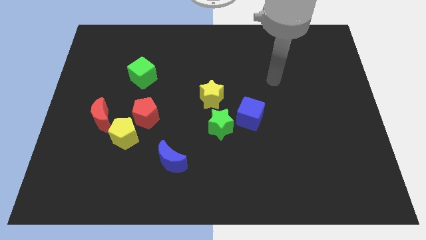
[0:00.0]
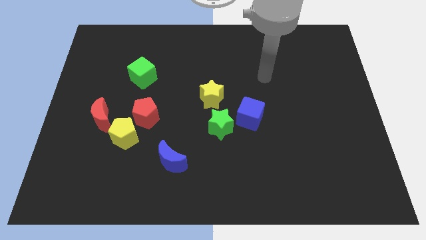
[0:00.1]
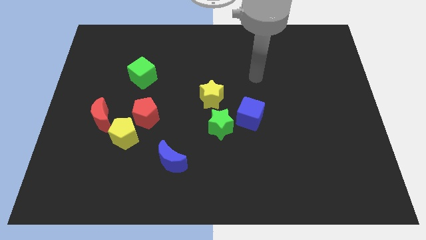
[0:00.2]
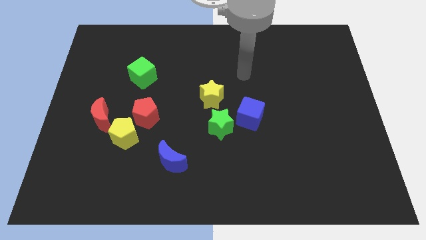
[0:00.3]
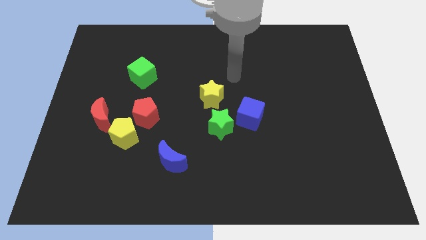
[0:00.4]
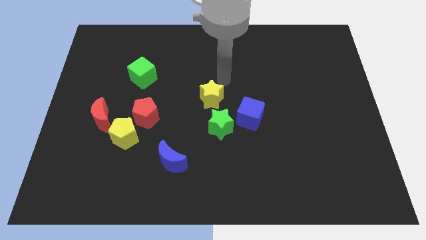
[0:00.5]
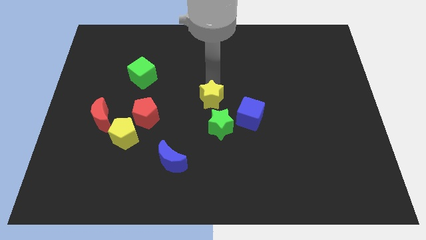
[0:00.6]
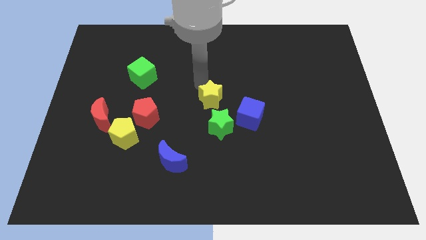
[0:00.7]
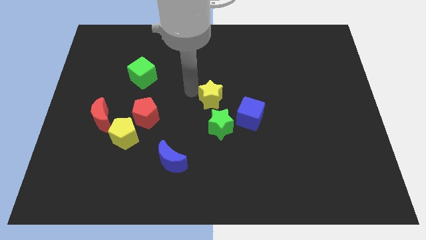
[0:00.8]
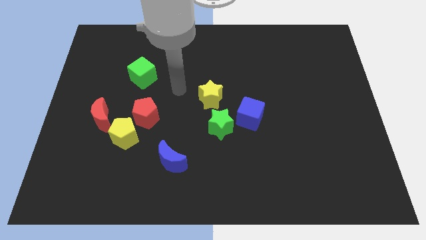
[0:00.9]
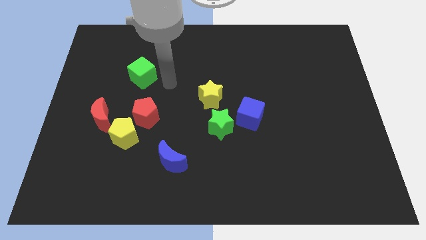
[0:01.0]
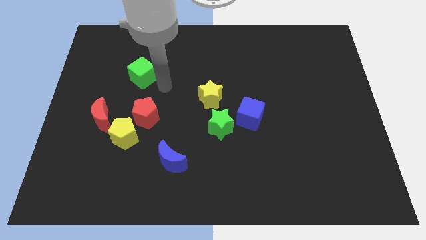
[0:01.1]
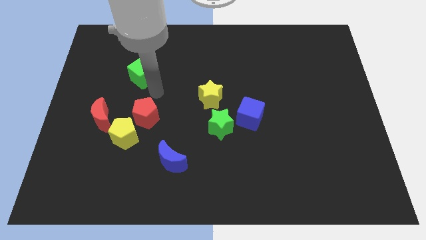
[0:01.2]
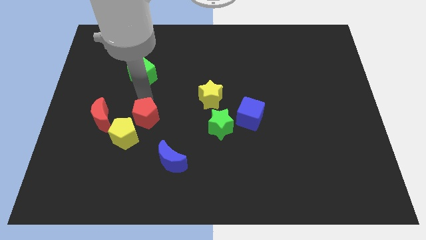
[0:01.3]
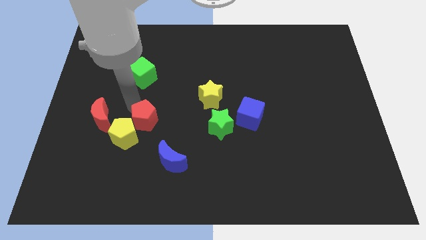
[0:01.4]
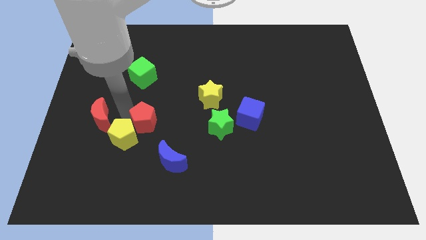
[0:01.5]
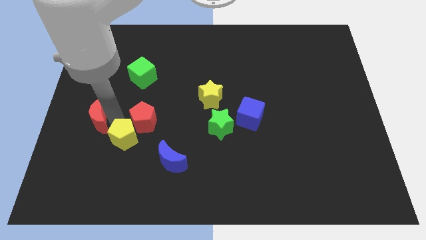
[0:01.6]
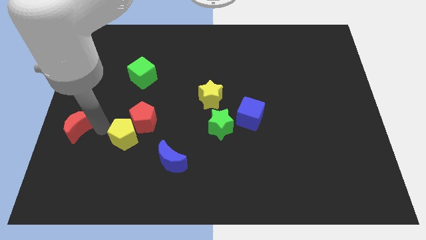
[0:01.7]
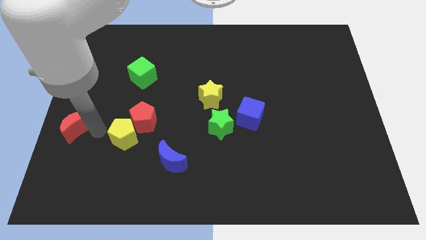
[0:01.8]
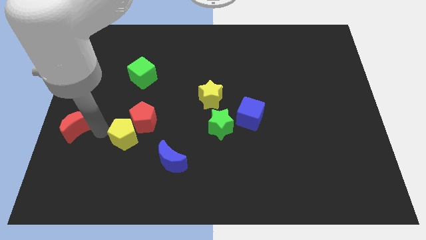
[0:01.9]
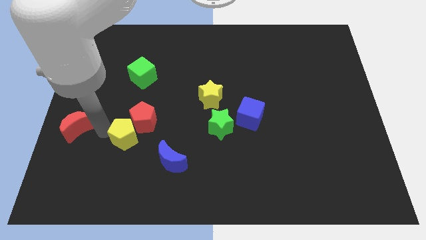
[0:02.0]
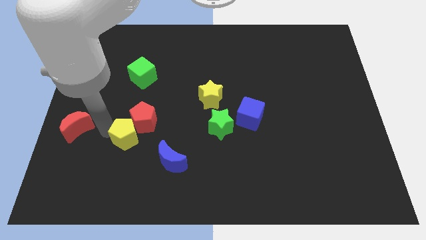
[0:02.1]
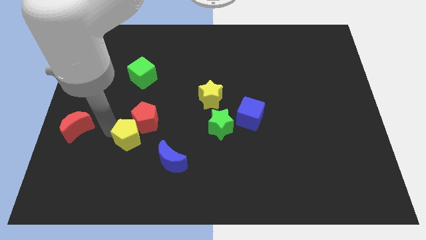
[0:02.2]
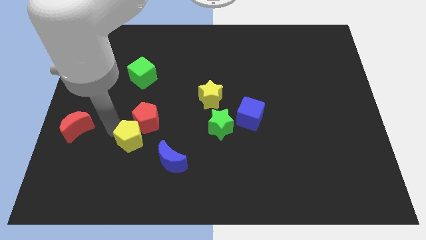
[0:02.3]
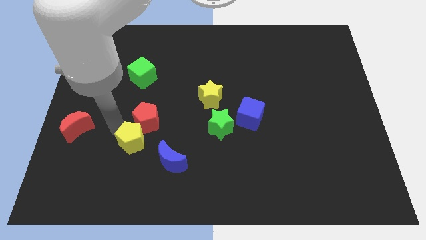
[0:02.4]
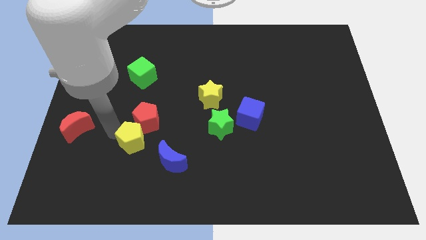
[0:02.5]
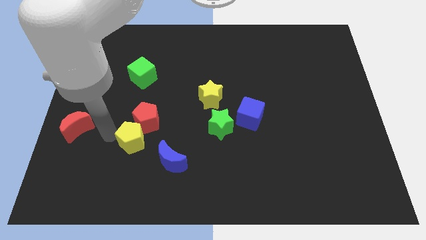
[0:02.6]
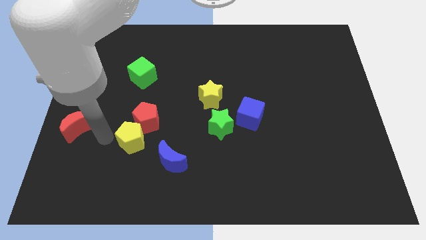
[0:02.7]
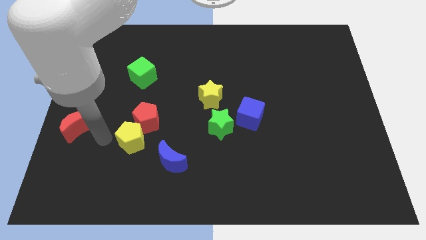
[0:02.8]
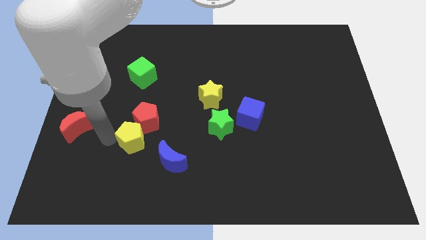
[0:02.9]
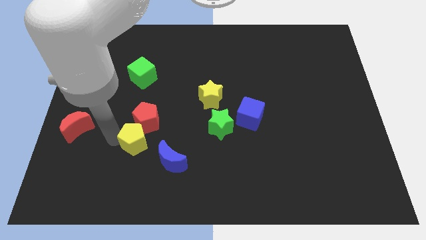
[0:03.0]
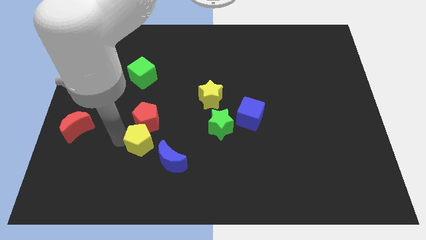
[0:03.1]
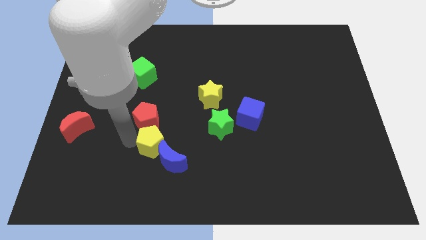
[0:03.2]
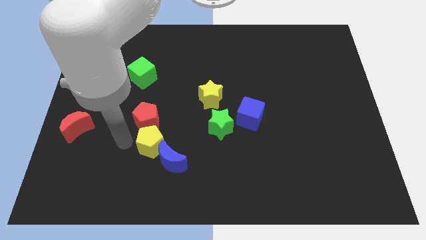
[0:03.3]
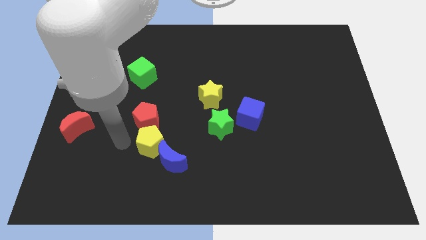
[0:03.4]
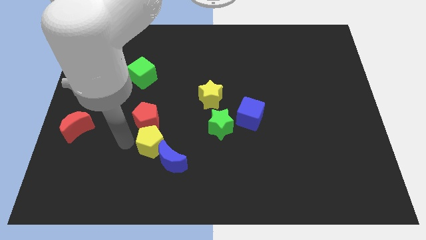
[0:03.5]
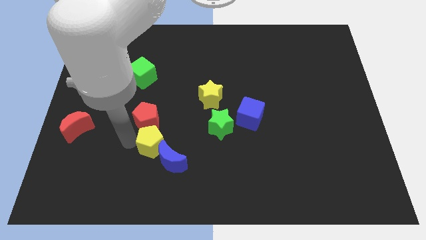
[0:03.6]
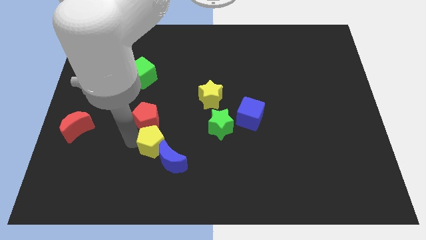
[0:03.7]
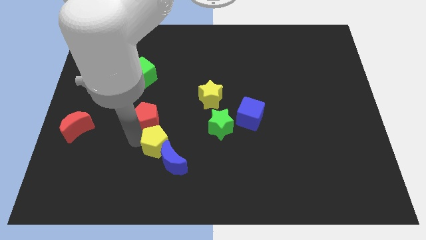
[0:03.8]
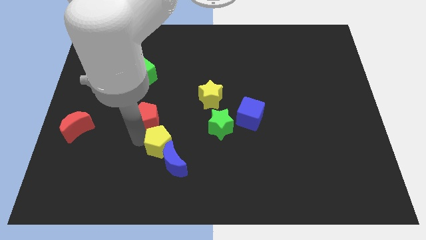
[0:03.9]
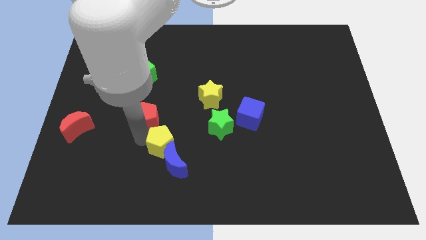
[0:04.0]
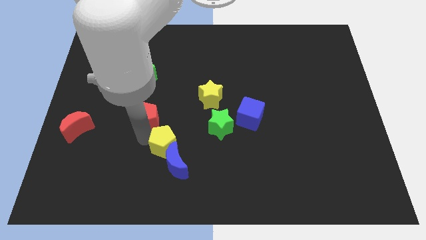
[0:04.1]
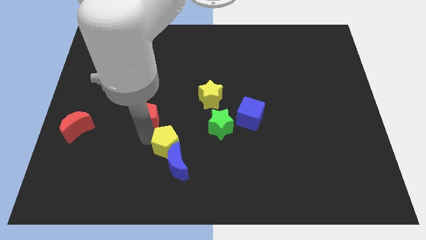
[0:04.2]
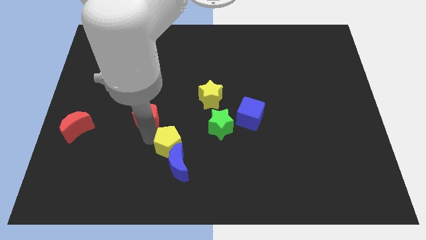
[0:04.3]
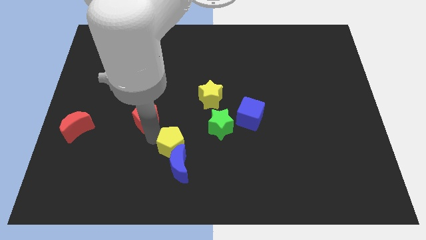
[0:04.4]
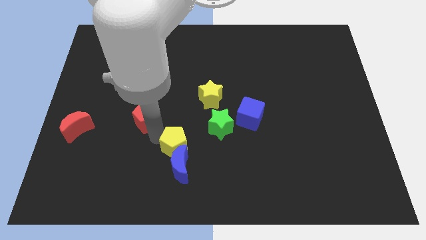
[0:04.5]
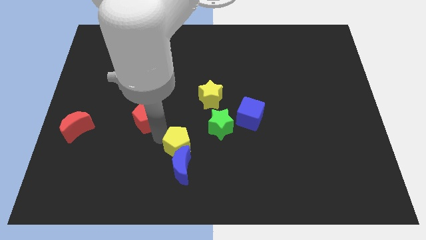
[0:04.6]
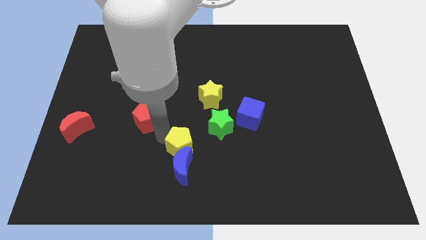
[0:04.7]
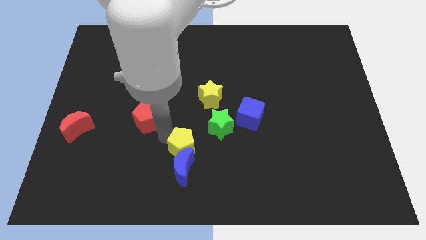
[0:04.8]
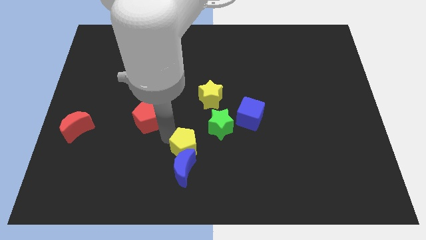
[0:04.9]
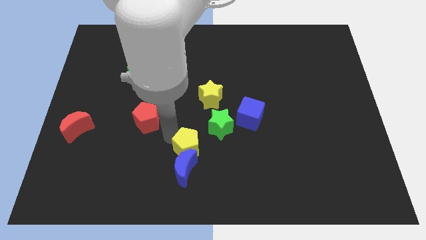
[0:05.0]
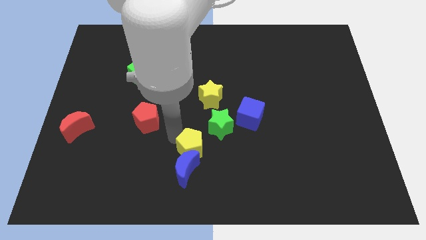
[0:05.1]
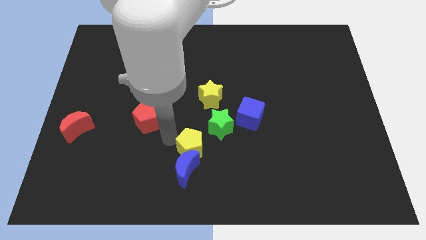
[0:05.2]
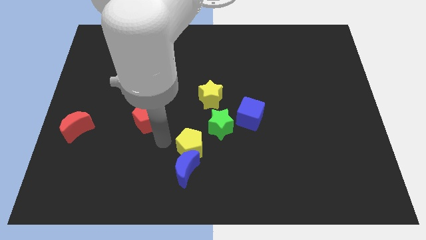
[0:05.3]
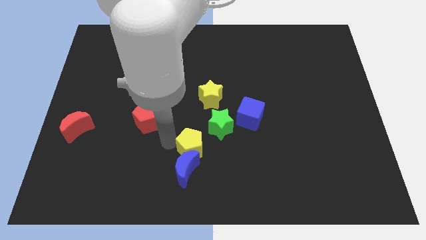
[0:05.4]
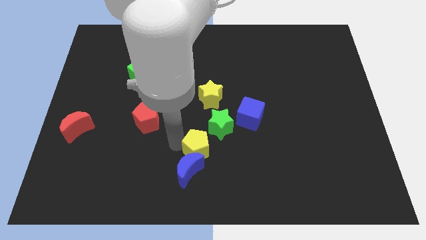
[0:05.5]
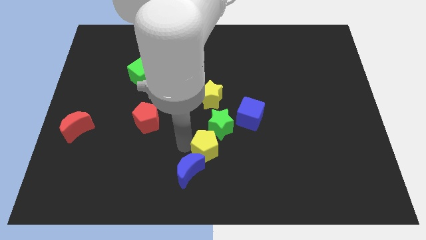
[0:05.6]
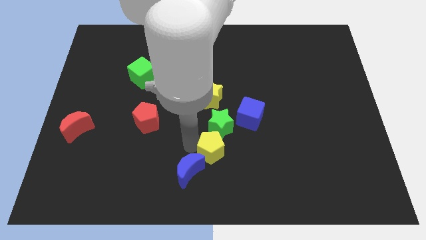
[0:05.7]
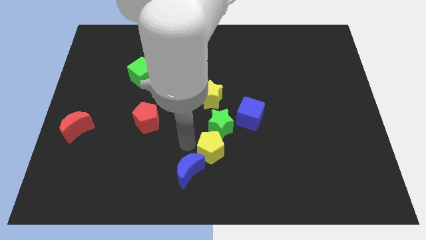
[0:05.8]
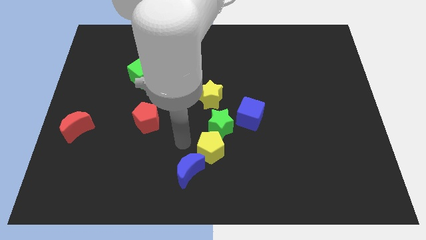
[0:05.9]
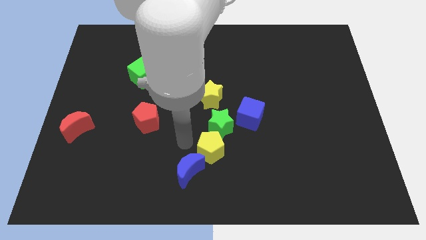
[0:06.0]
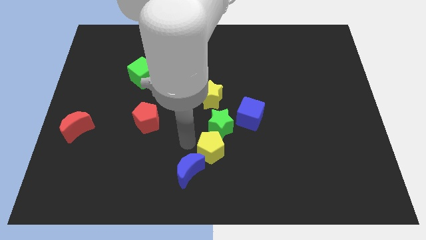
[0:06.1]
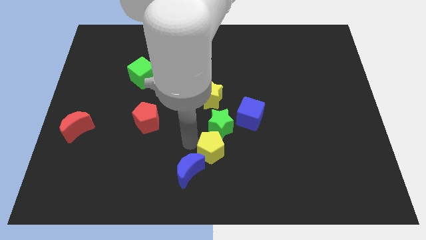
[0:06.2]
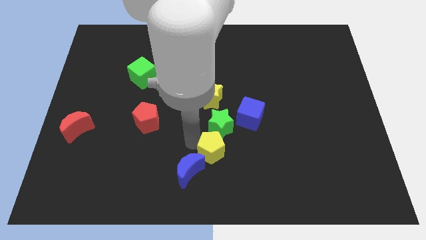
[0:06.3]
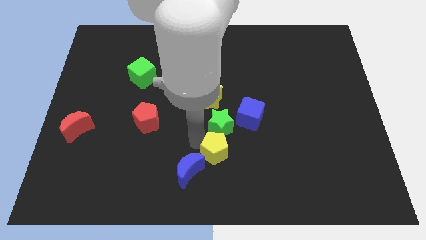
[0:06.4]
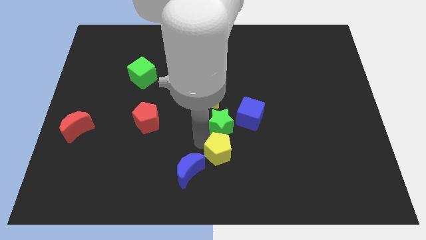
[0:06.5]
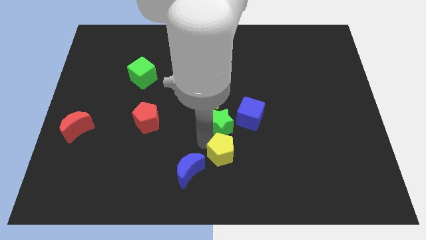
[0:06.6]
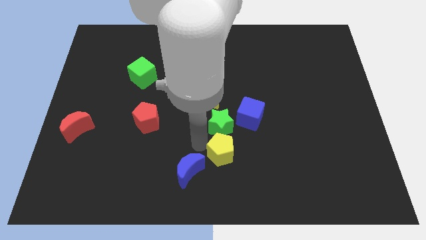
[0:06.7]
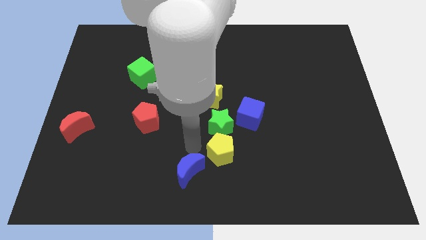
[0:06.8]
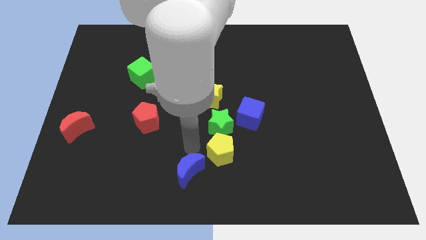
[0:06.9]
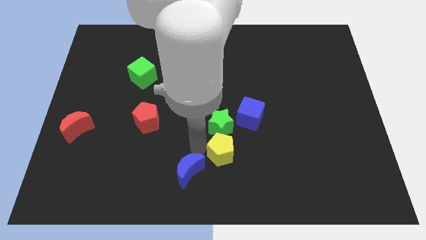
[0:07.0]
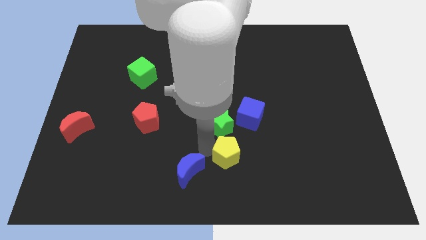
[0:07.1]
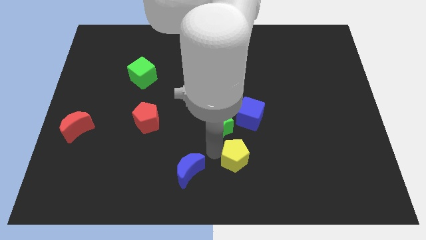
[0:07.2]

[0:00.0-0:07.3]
push the yellow pentagon below the blue cube
